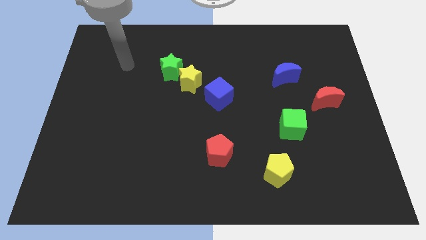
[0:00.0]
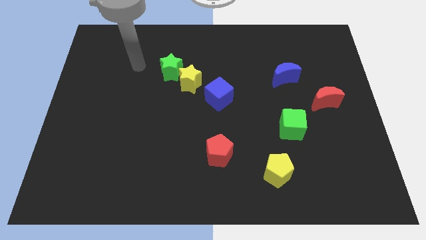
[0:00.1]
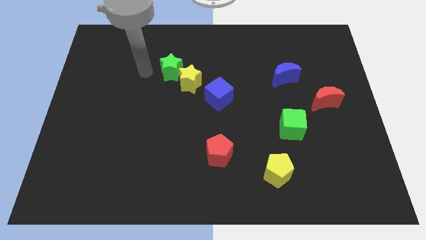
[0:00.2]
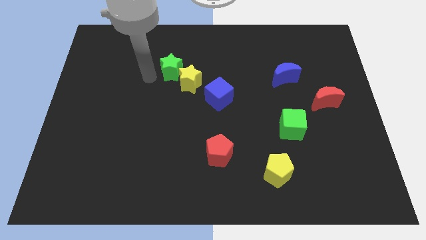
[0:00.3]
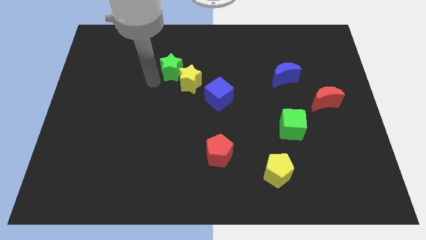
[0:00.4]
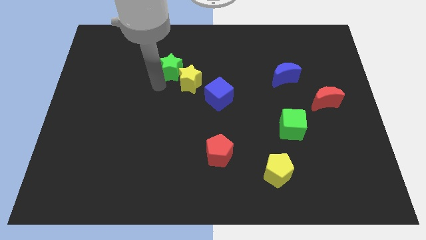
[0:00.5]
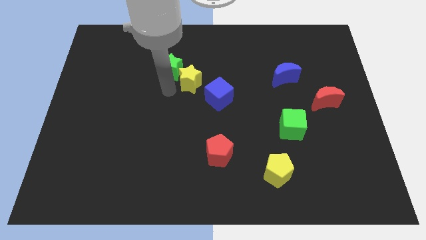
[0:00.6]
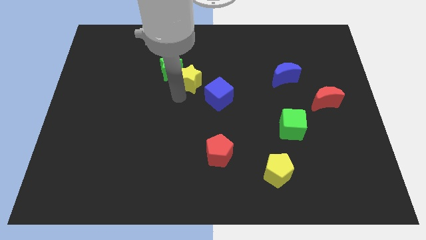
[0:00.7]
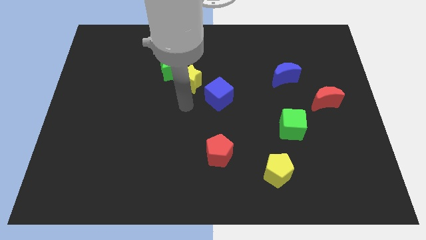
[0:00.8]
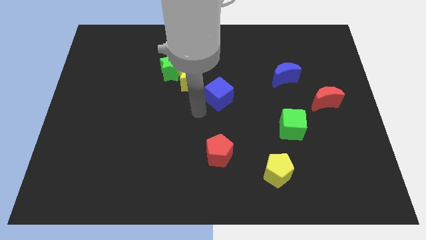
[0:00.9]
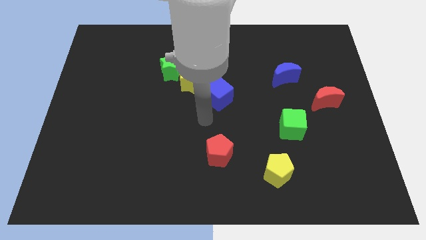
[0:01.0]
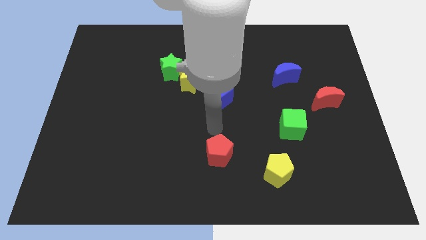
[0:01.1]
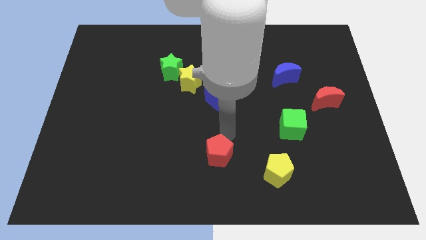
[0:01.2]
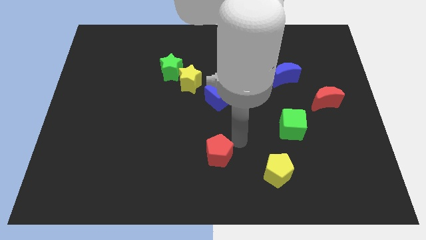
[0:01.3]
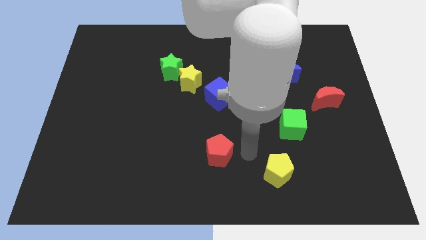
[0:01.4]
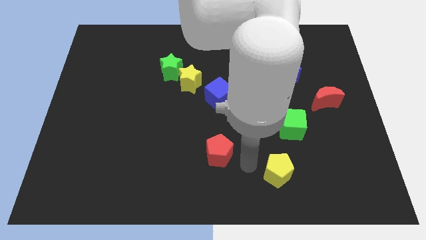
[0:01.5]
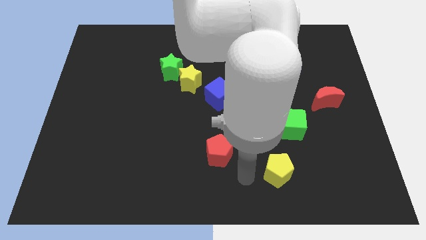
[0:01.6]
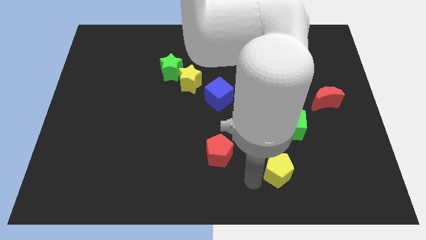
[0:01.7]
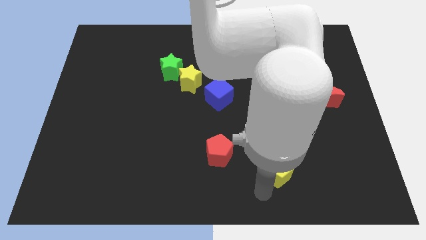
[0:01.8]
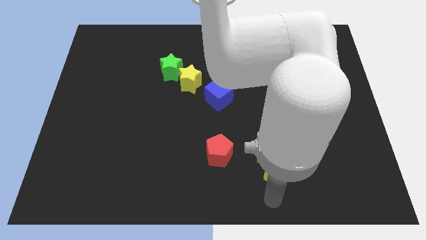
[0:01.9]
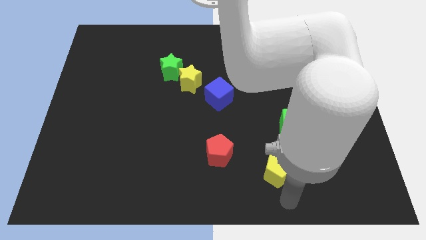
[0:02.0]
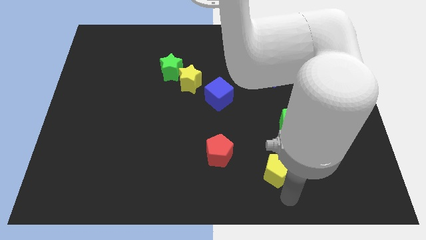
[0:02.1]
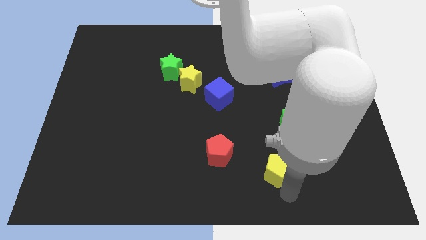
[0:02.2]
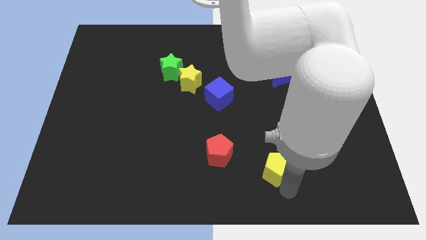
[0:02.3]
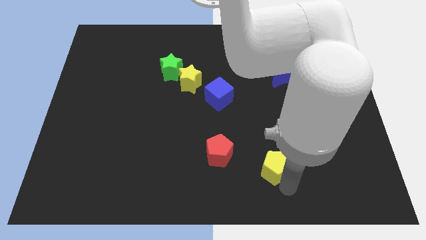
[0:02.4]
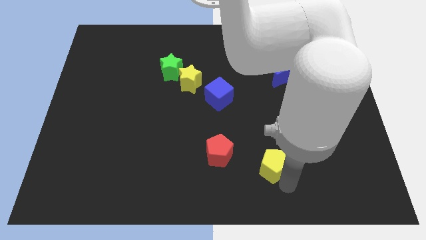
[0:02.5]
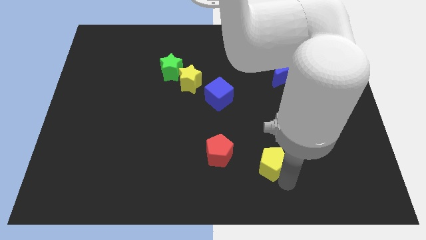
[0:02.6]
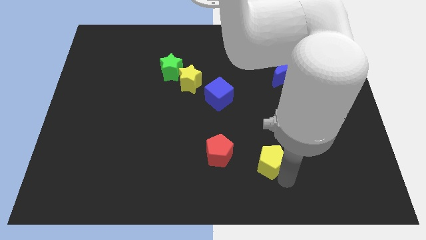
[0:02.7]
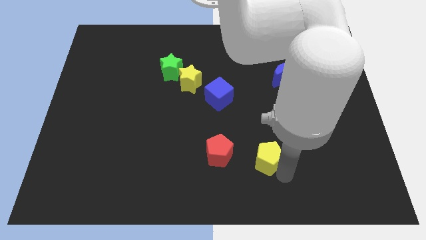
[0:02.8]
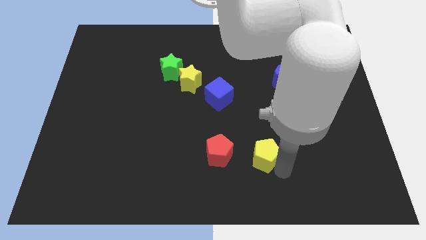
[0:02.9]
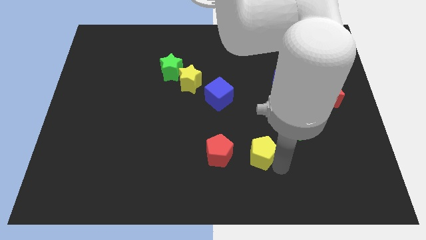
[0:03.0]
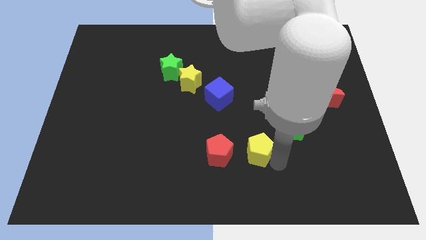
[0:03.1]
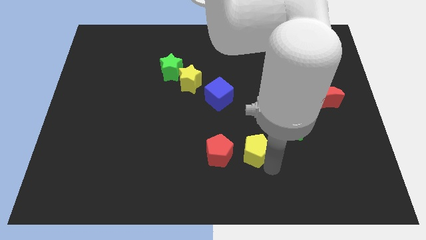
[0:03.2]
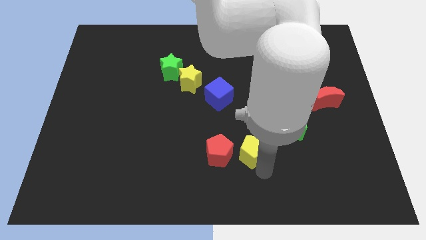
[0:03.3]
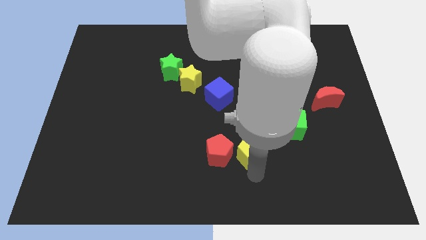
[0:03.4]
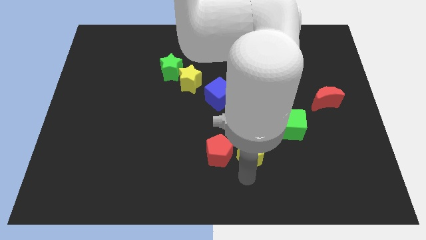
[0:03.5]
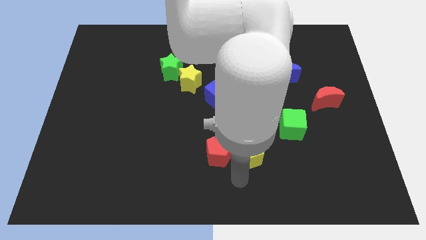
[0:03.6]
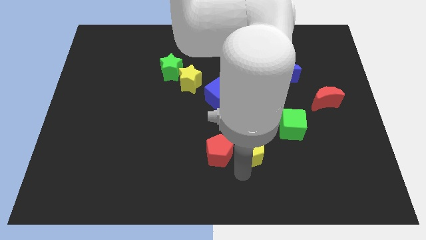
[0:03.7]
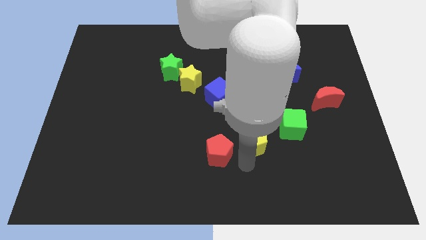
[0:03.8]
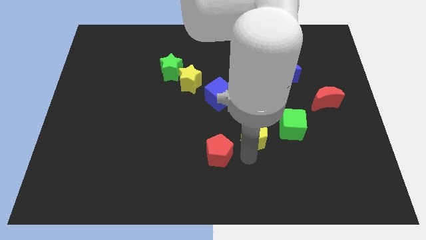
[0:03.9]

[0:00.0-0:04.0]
push the yellow pentagon upwards a little

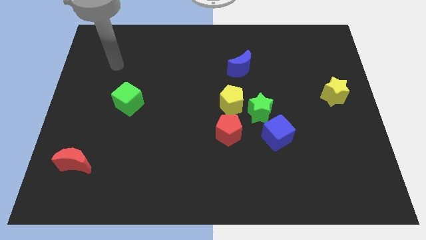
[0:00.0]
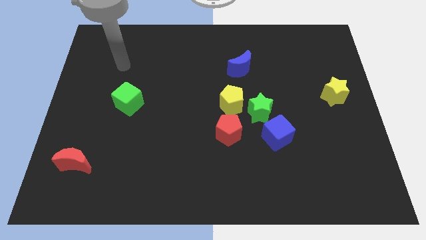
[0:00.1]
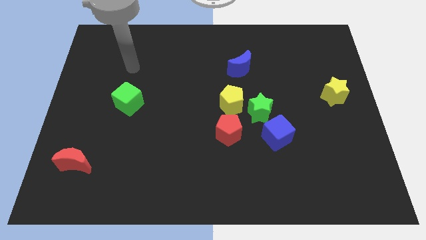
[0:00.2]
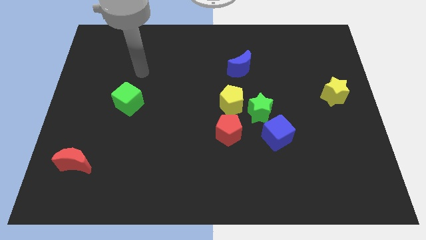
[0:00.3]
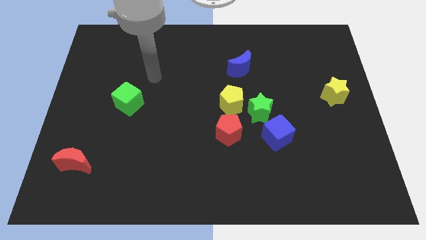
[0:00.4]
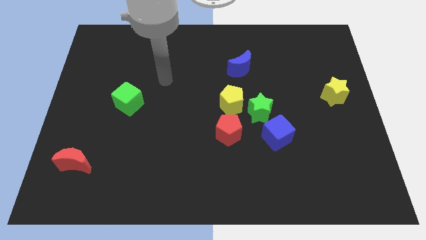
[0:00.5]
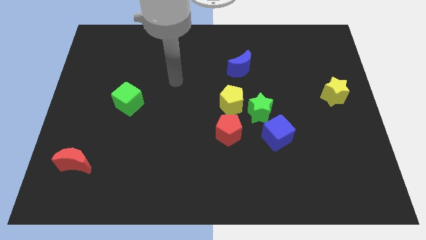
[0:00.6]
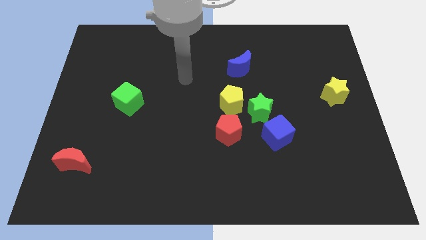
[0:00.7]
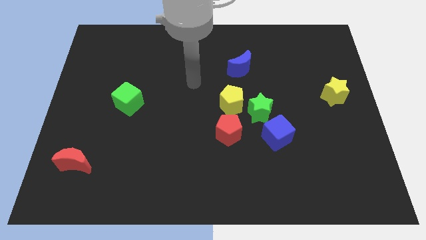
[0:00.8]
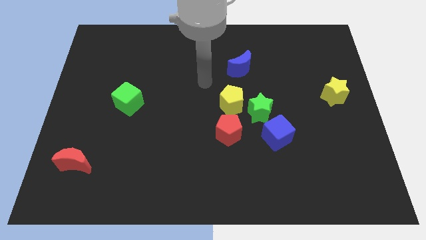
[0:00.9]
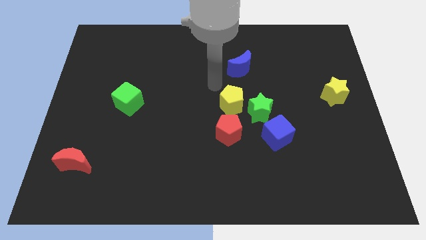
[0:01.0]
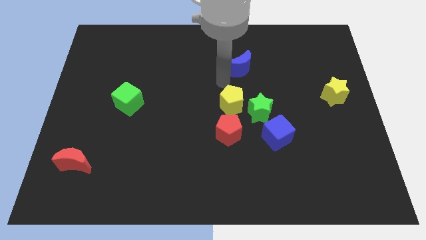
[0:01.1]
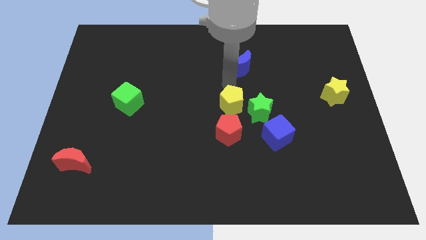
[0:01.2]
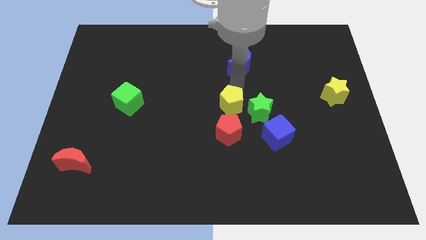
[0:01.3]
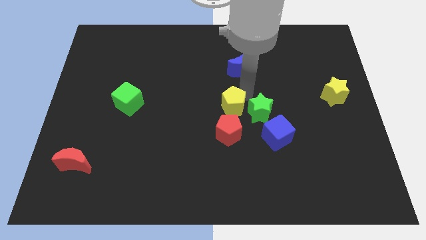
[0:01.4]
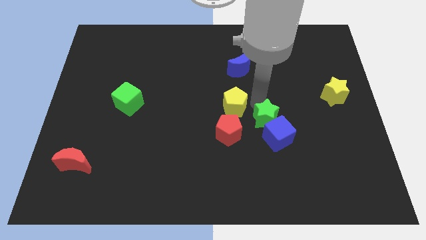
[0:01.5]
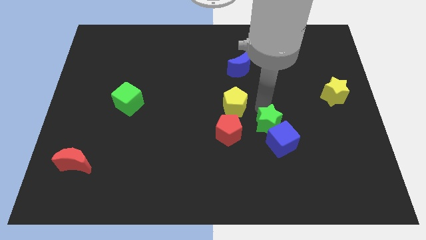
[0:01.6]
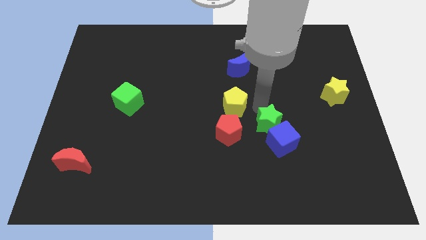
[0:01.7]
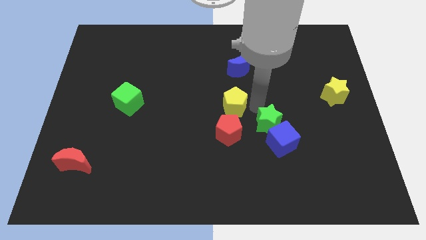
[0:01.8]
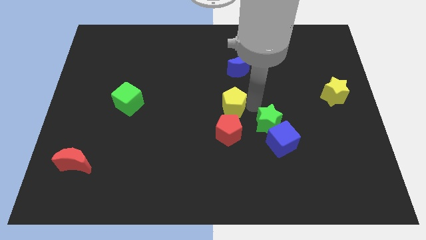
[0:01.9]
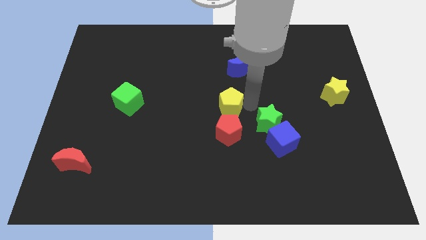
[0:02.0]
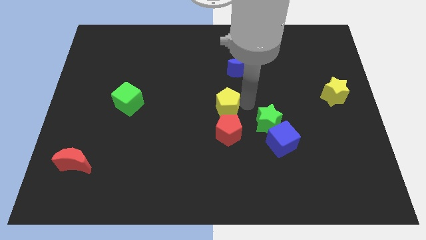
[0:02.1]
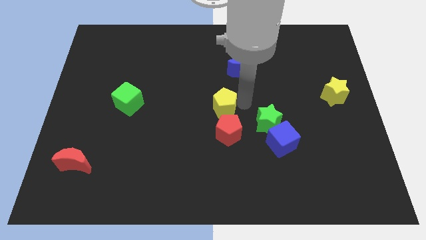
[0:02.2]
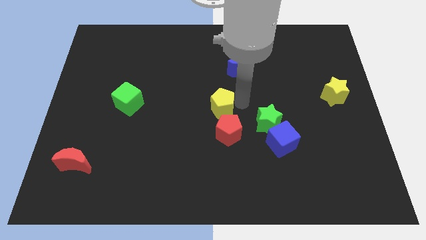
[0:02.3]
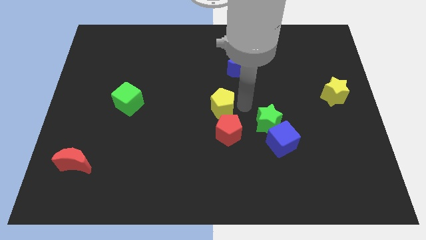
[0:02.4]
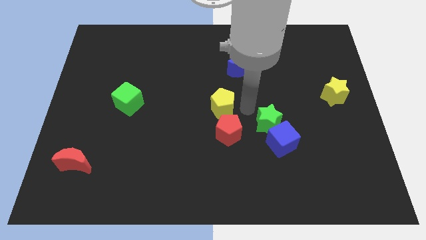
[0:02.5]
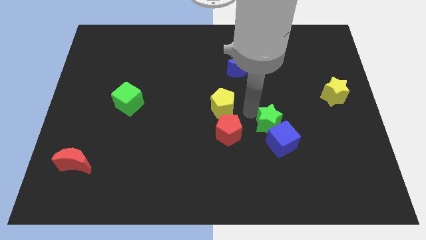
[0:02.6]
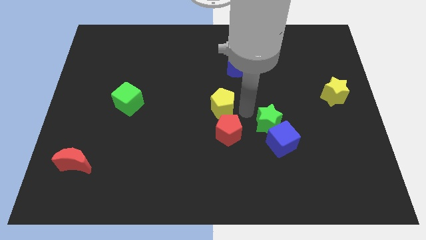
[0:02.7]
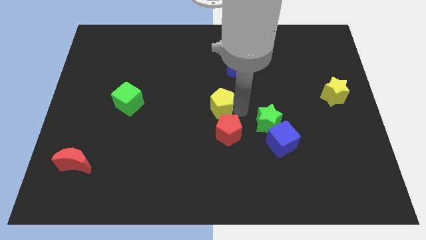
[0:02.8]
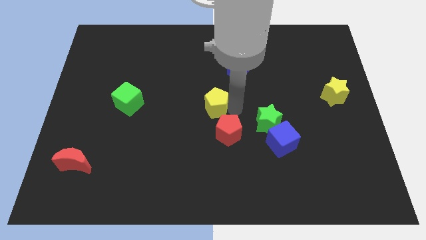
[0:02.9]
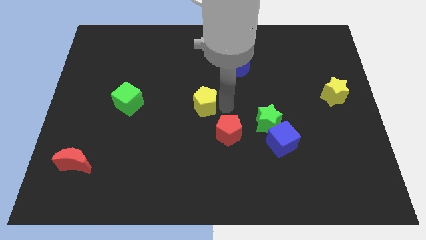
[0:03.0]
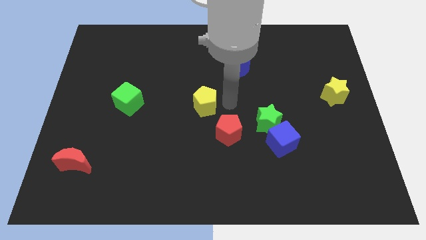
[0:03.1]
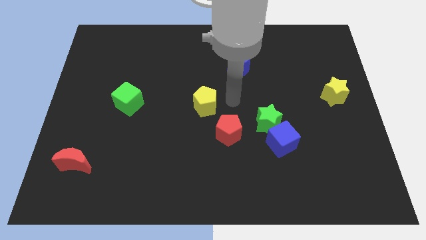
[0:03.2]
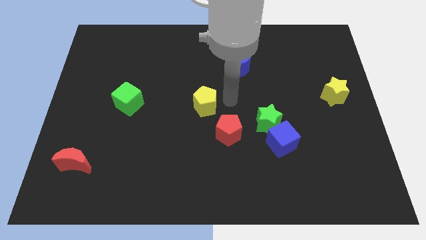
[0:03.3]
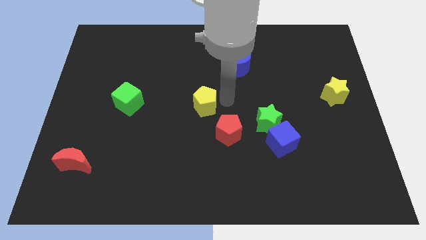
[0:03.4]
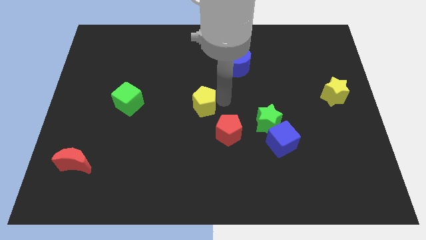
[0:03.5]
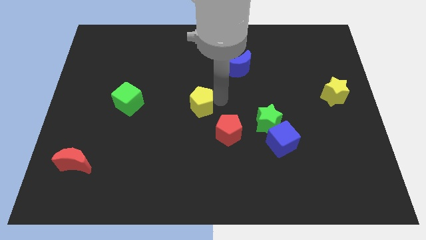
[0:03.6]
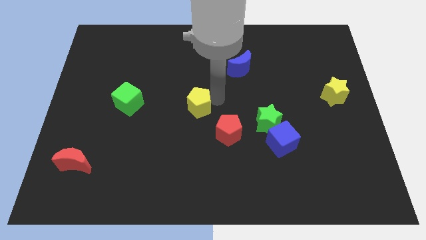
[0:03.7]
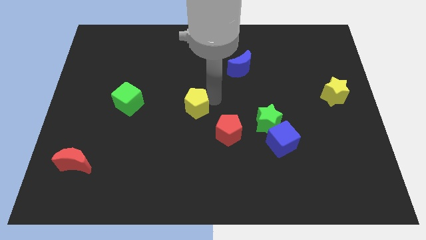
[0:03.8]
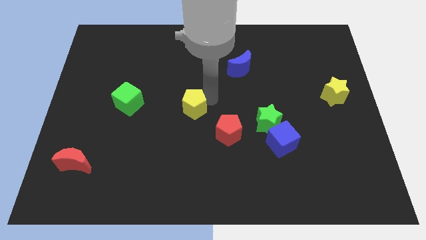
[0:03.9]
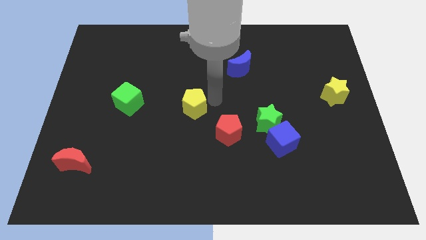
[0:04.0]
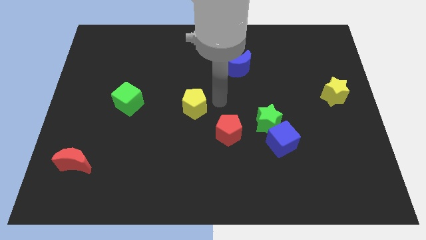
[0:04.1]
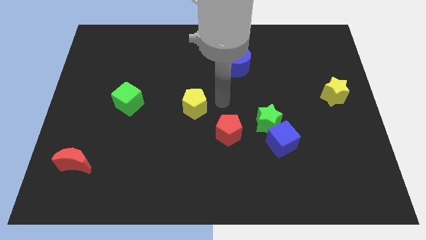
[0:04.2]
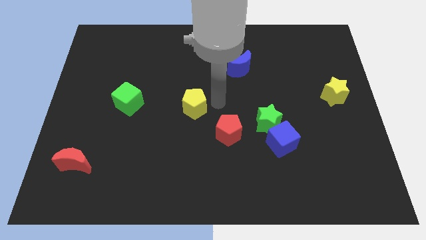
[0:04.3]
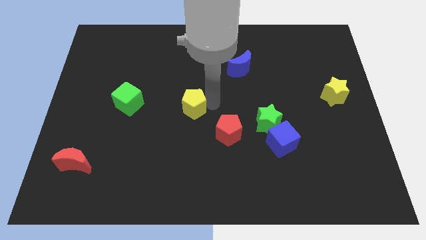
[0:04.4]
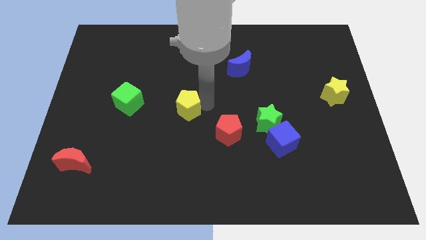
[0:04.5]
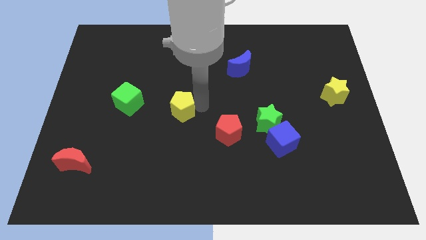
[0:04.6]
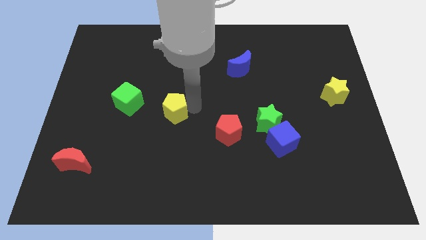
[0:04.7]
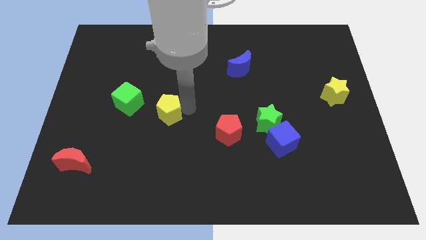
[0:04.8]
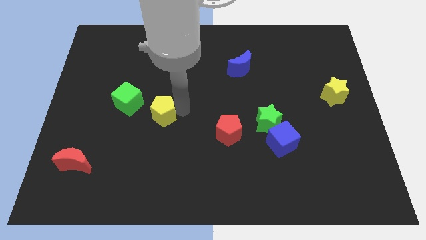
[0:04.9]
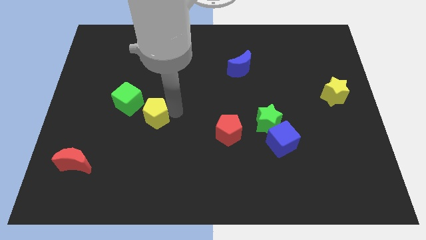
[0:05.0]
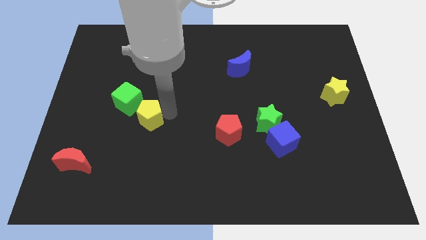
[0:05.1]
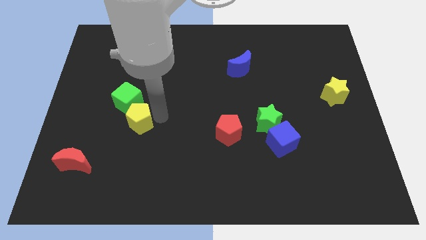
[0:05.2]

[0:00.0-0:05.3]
push the yellow pentagon left
